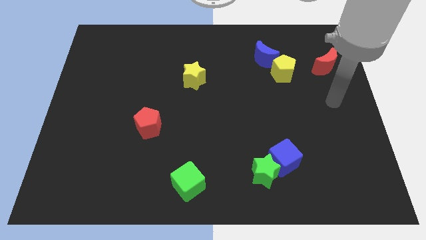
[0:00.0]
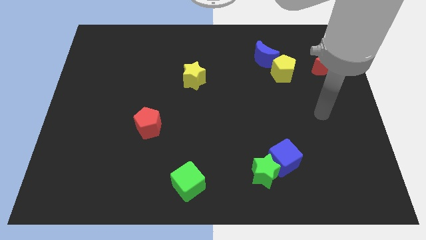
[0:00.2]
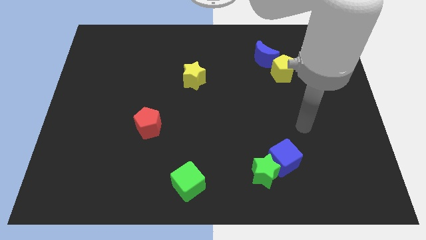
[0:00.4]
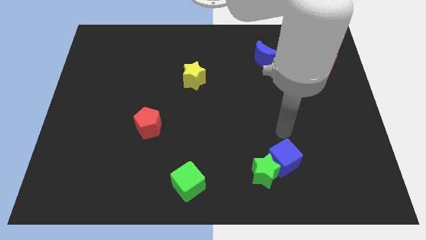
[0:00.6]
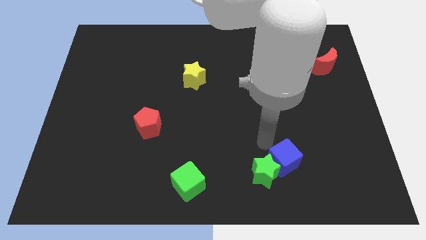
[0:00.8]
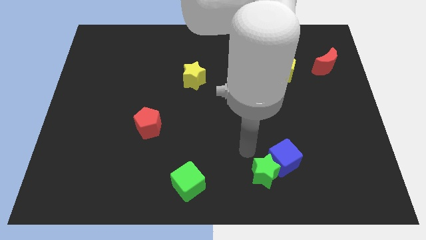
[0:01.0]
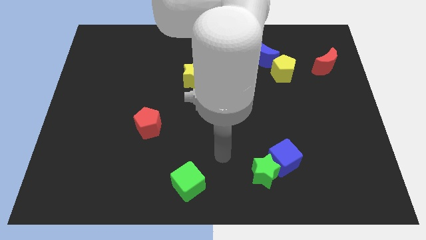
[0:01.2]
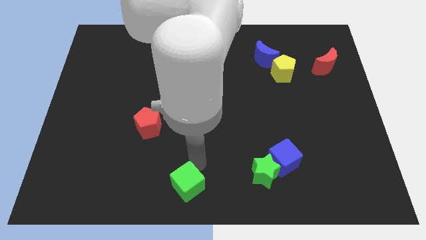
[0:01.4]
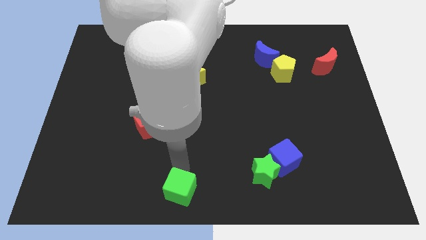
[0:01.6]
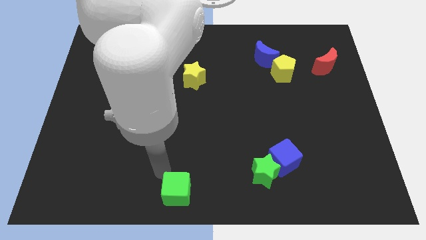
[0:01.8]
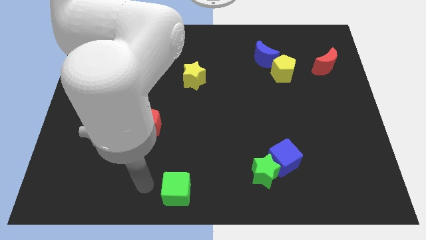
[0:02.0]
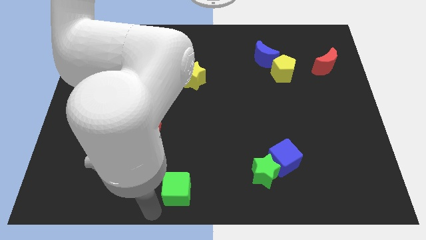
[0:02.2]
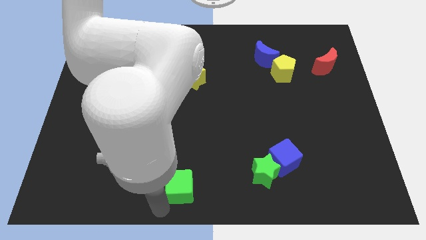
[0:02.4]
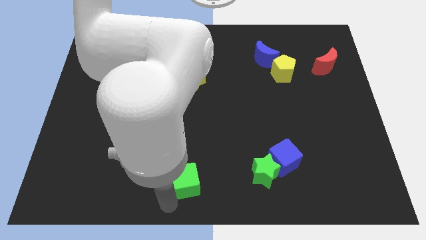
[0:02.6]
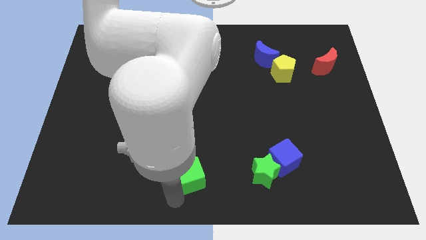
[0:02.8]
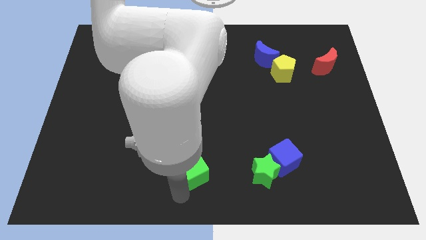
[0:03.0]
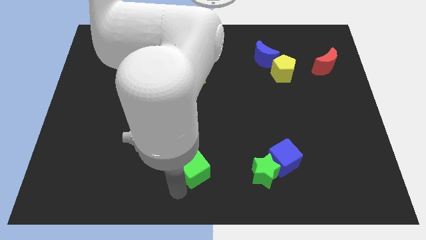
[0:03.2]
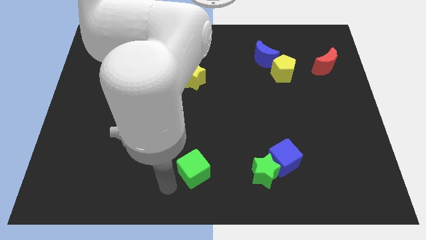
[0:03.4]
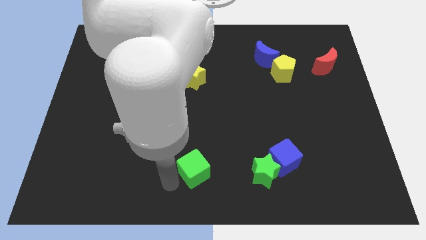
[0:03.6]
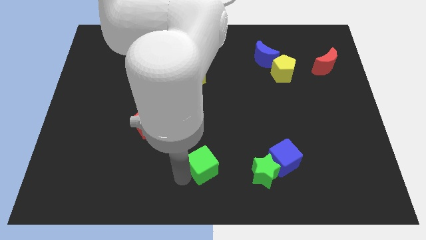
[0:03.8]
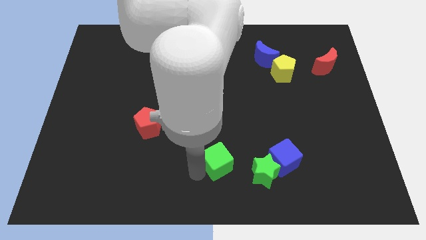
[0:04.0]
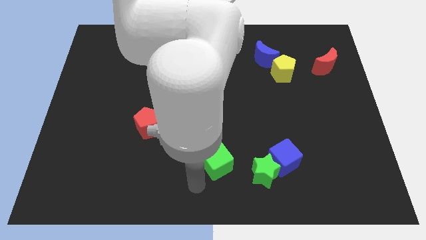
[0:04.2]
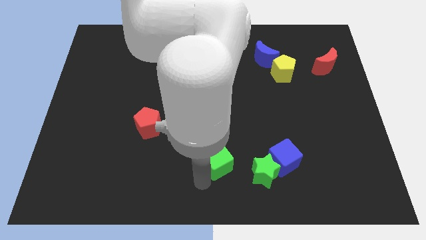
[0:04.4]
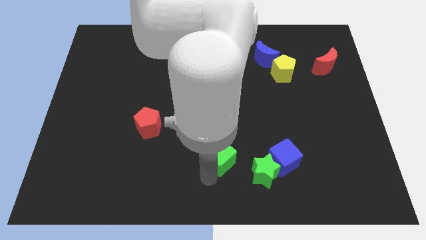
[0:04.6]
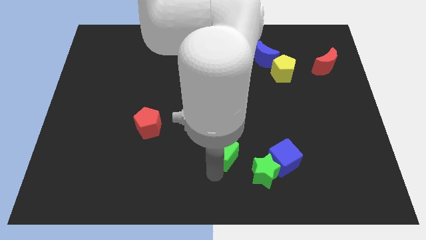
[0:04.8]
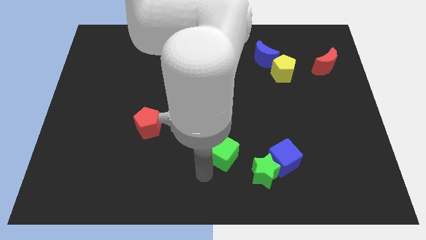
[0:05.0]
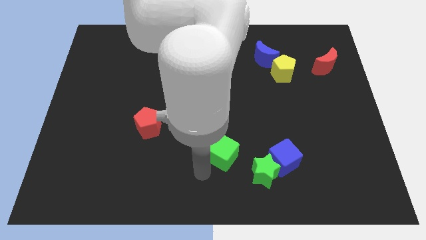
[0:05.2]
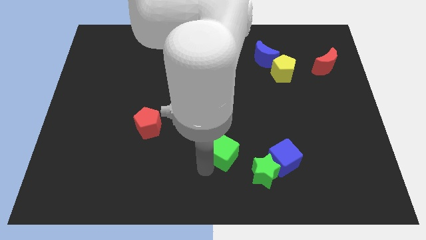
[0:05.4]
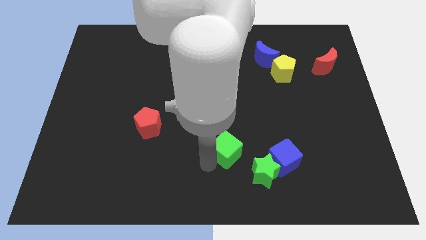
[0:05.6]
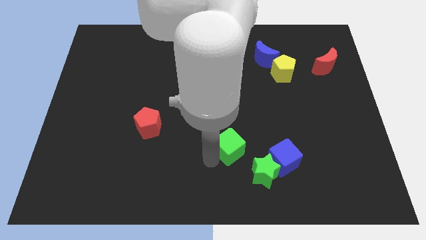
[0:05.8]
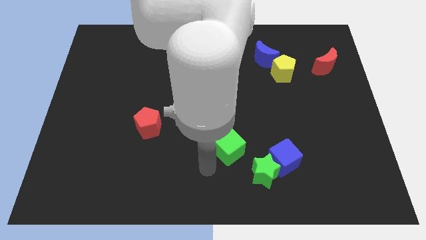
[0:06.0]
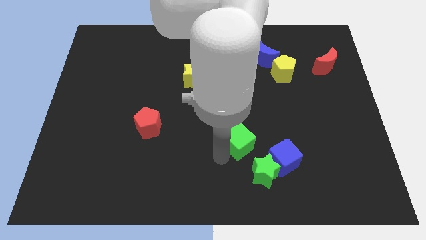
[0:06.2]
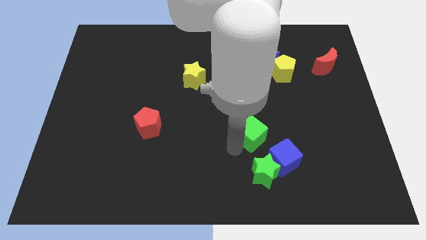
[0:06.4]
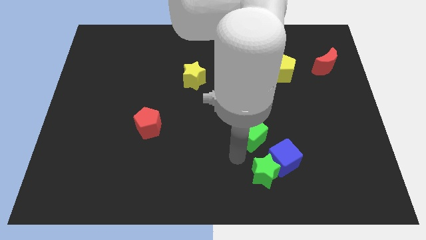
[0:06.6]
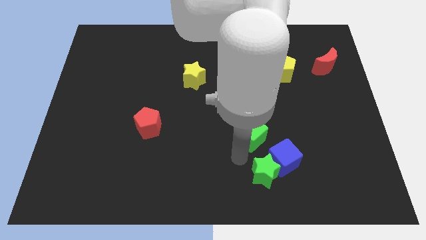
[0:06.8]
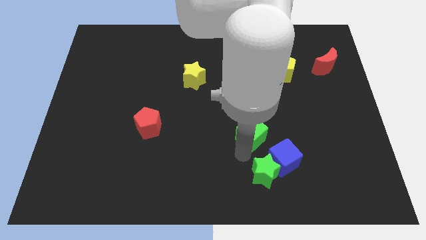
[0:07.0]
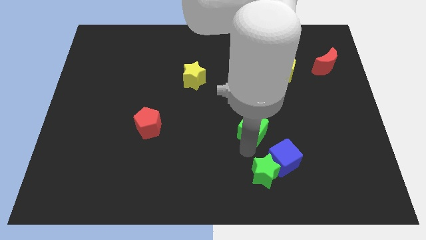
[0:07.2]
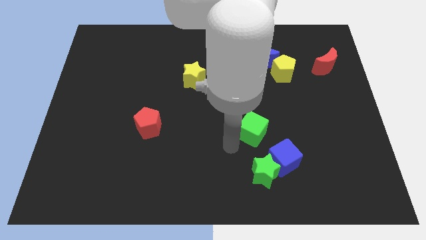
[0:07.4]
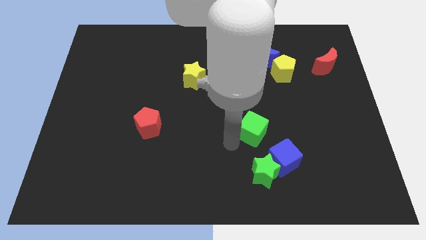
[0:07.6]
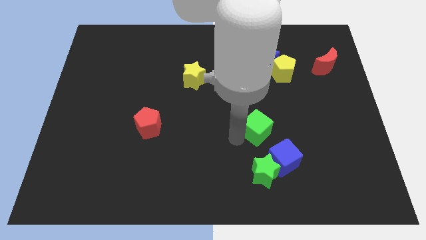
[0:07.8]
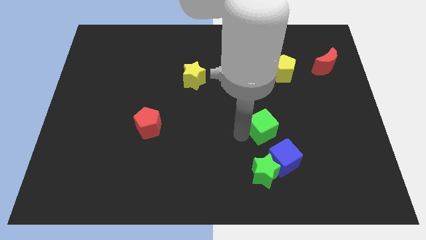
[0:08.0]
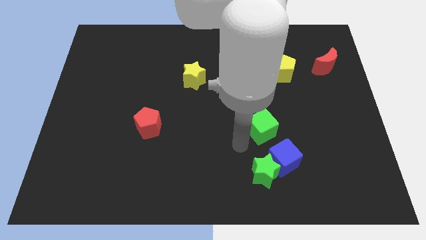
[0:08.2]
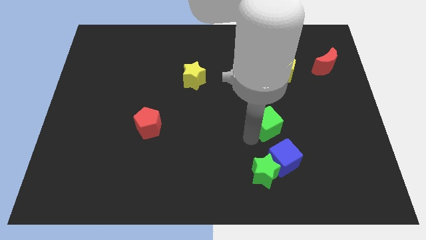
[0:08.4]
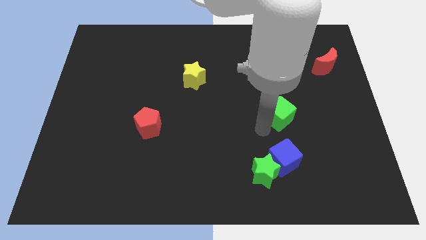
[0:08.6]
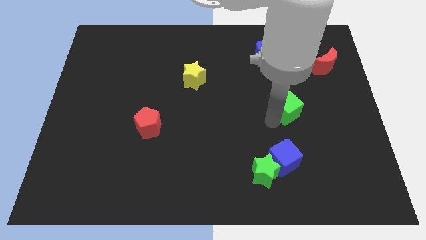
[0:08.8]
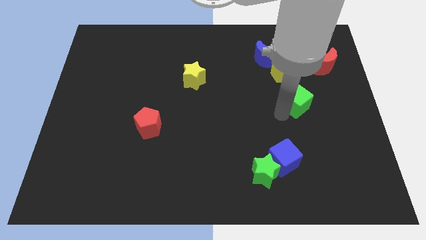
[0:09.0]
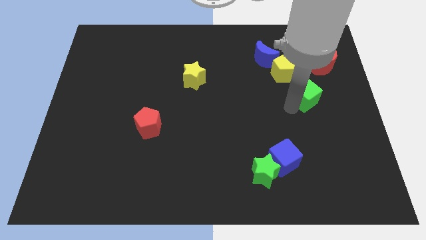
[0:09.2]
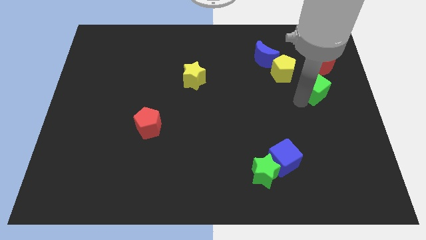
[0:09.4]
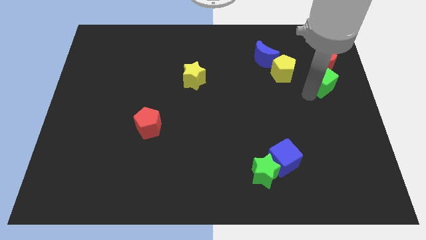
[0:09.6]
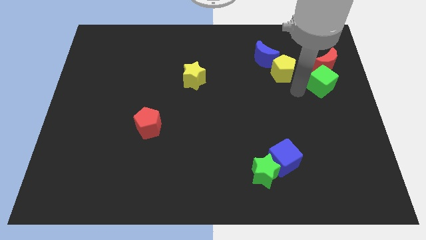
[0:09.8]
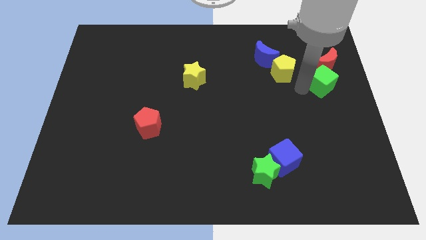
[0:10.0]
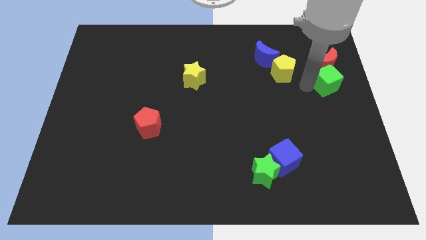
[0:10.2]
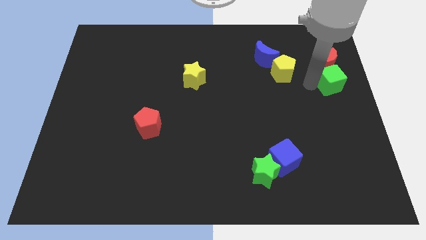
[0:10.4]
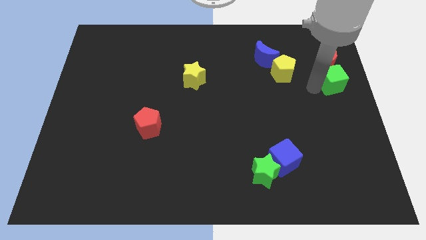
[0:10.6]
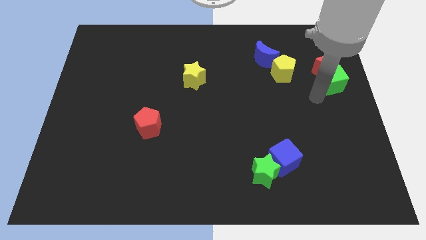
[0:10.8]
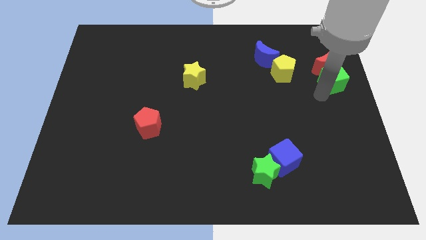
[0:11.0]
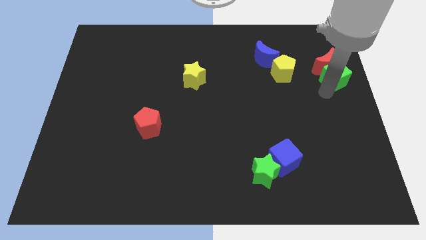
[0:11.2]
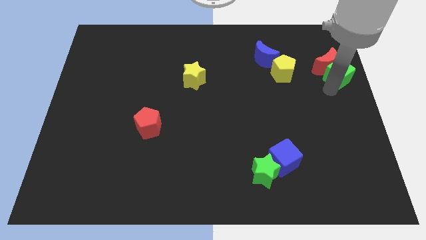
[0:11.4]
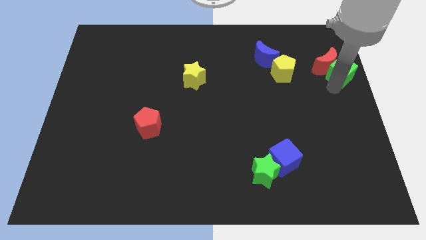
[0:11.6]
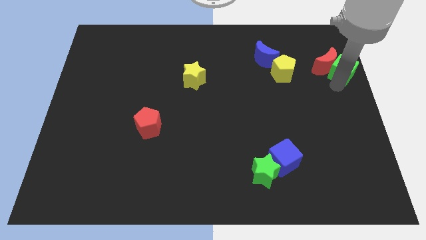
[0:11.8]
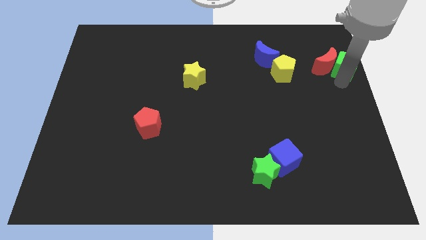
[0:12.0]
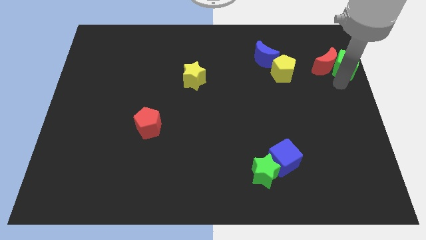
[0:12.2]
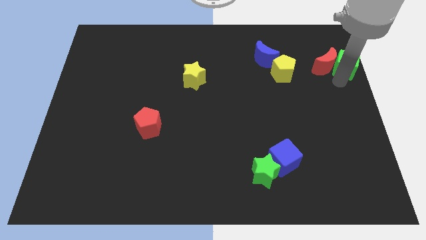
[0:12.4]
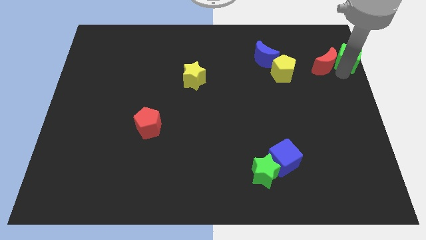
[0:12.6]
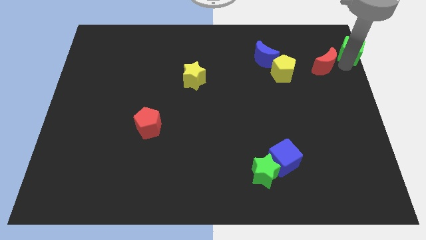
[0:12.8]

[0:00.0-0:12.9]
put the green cube to the upper right corner
